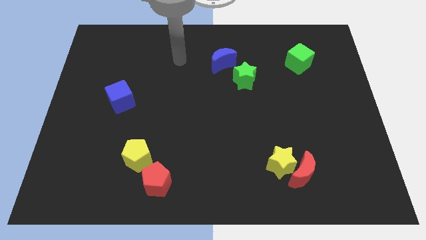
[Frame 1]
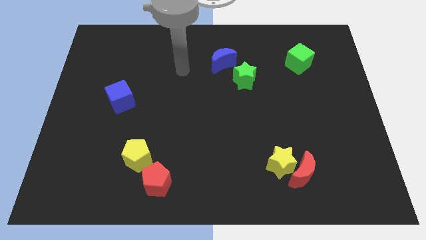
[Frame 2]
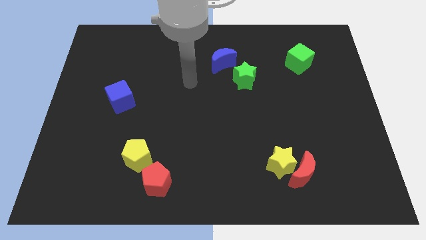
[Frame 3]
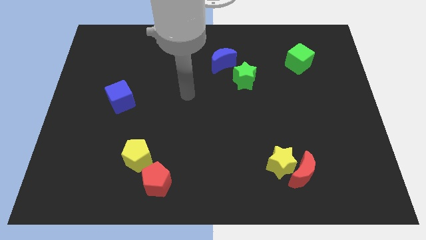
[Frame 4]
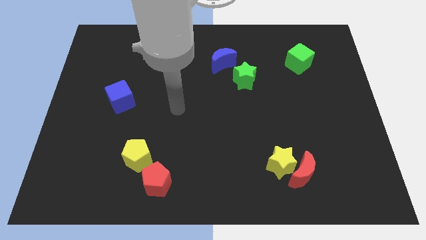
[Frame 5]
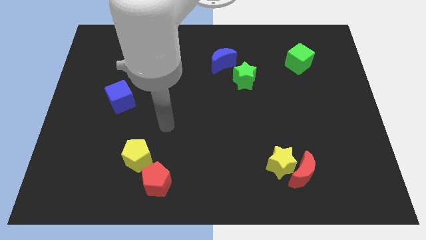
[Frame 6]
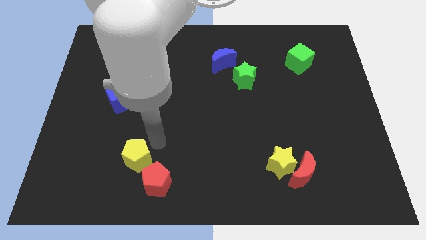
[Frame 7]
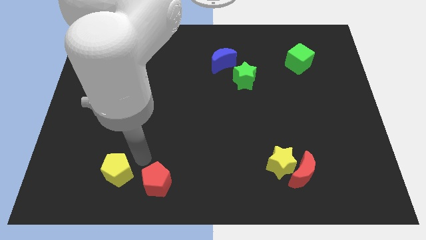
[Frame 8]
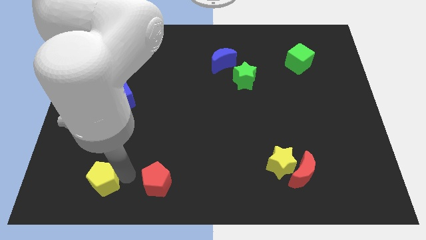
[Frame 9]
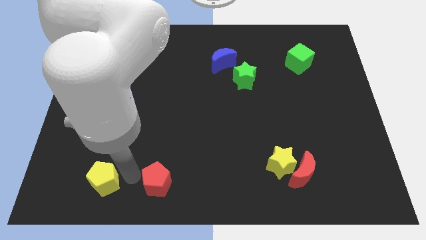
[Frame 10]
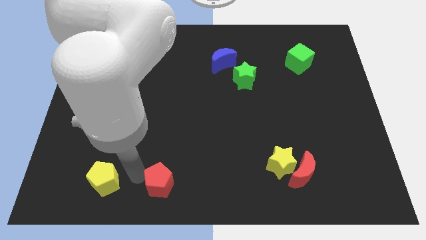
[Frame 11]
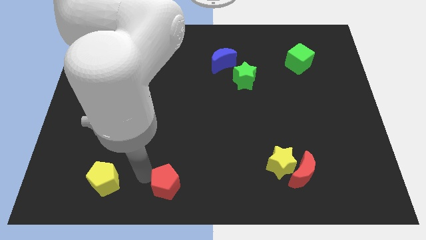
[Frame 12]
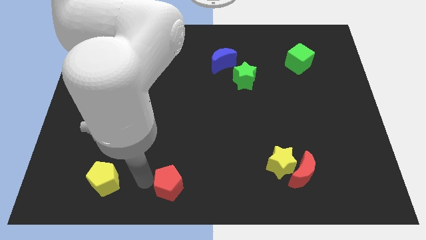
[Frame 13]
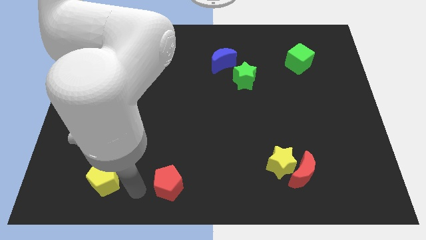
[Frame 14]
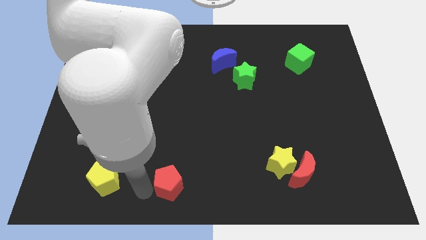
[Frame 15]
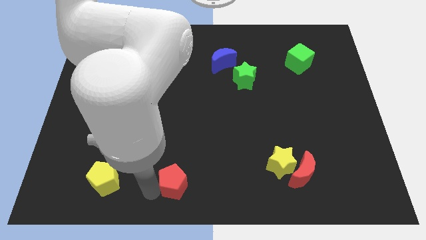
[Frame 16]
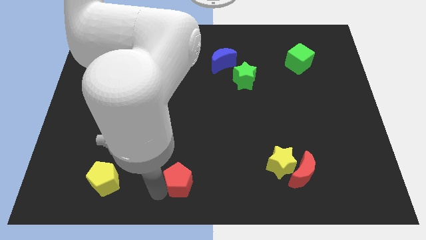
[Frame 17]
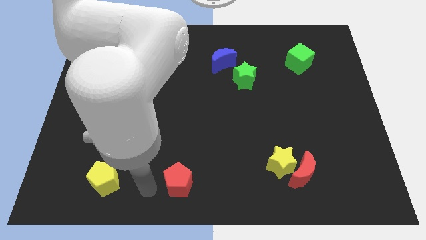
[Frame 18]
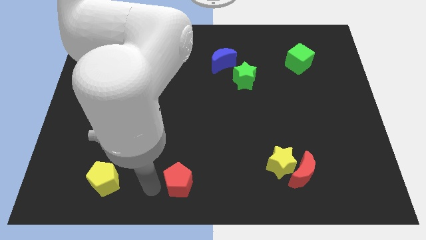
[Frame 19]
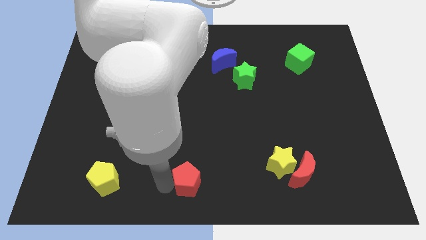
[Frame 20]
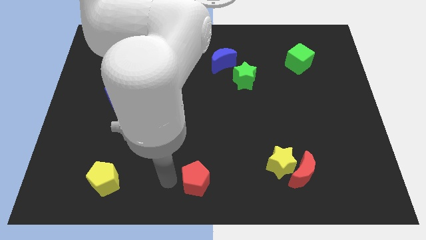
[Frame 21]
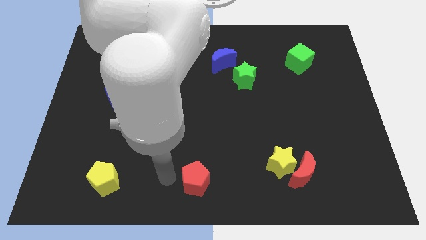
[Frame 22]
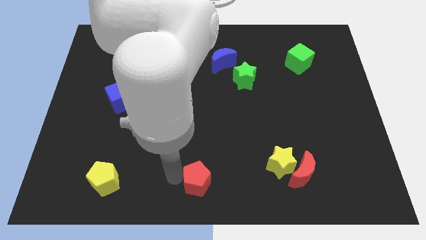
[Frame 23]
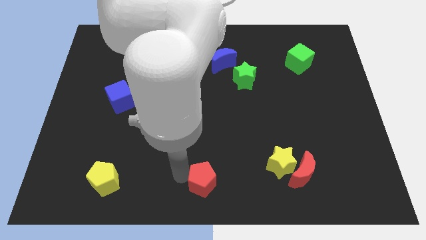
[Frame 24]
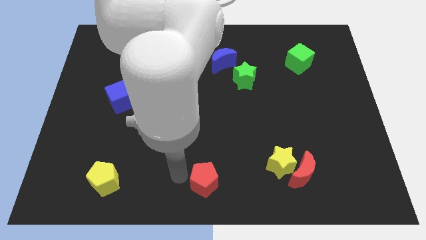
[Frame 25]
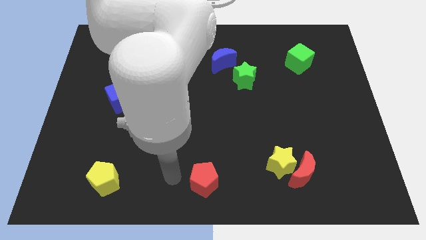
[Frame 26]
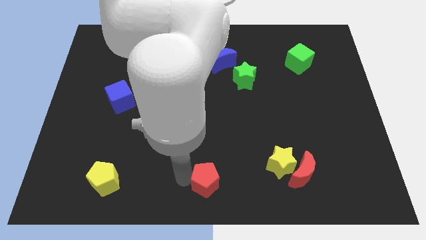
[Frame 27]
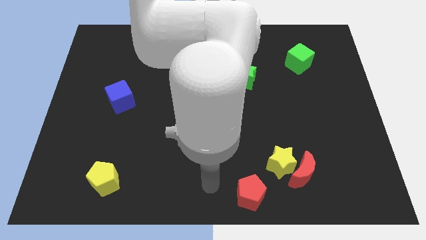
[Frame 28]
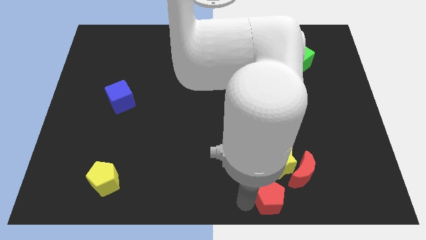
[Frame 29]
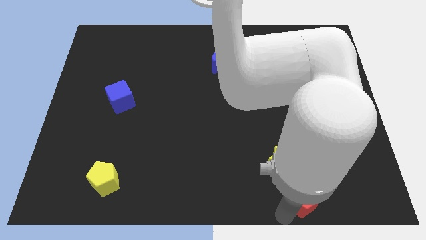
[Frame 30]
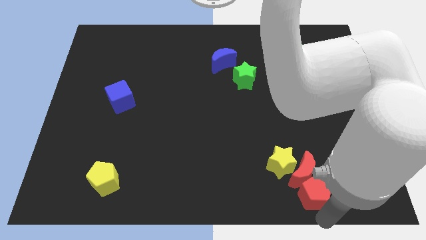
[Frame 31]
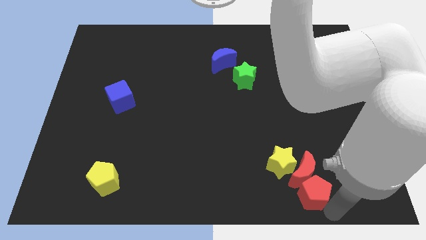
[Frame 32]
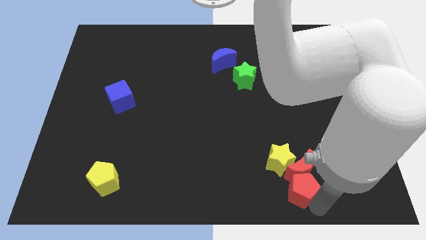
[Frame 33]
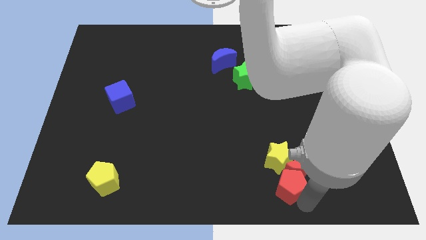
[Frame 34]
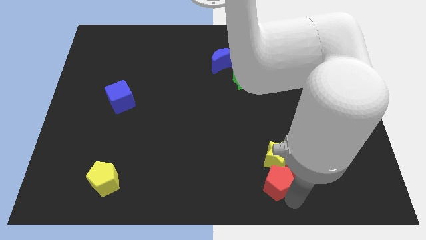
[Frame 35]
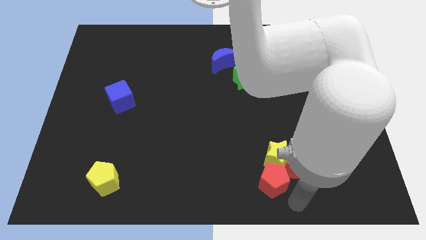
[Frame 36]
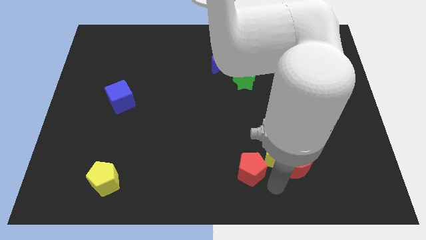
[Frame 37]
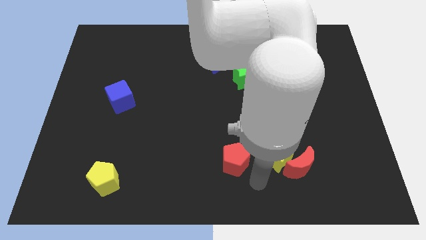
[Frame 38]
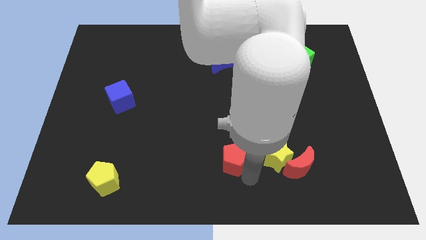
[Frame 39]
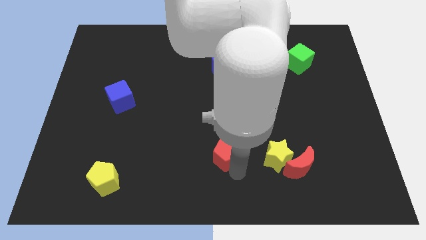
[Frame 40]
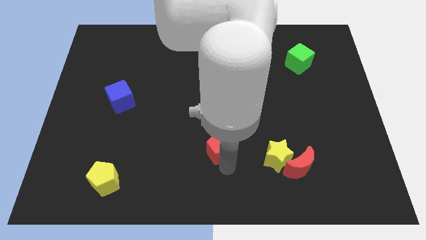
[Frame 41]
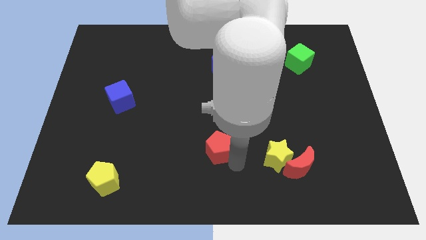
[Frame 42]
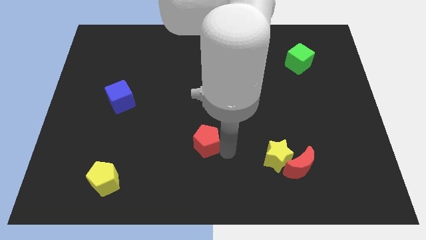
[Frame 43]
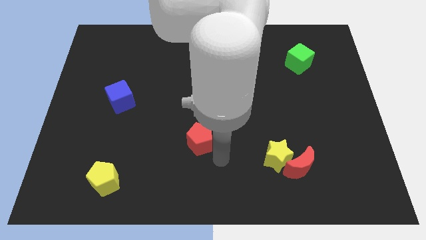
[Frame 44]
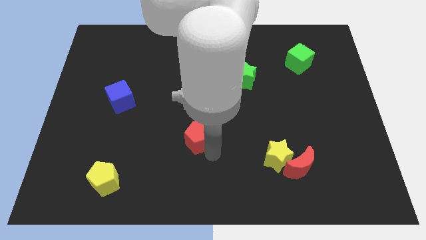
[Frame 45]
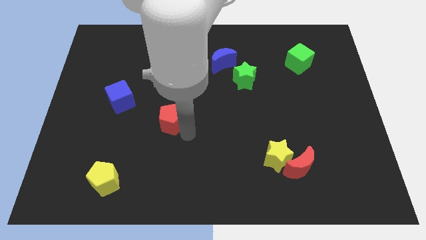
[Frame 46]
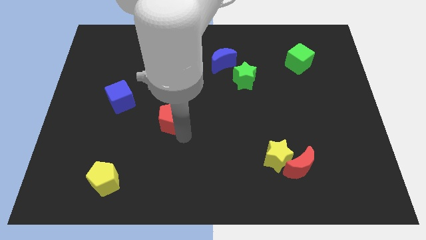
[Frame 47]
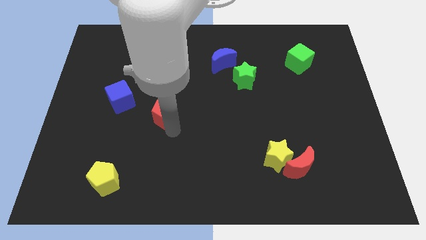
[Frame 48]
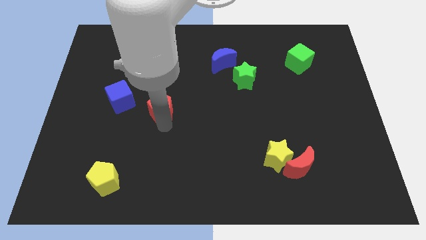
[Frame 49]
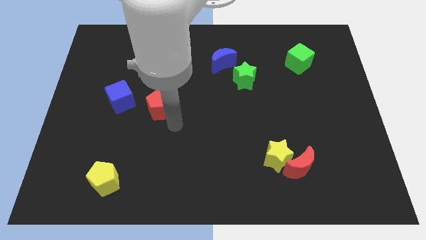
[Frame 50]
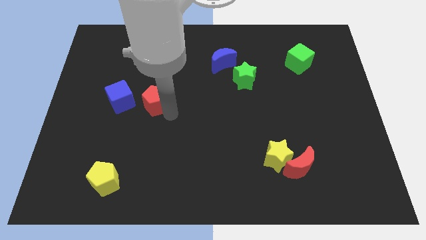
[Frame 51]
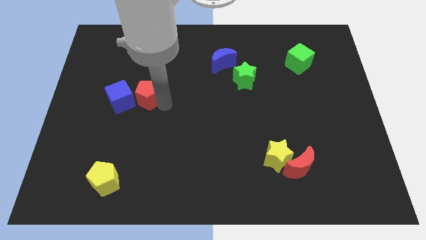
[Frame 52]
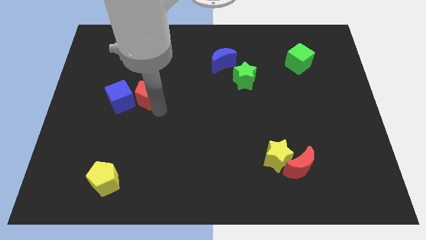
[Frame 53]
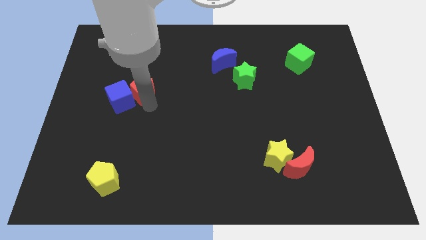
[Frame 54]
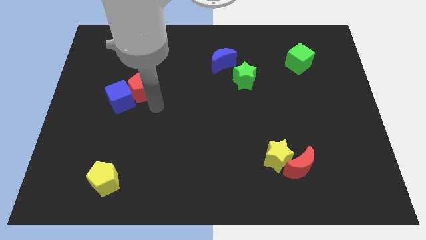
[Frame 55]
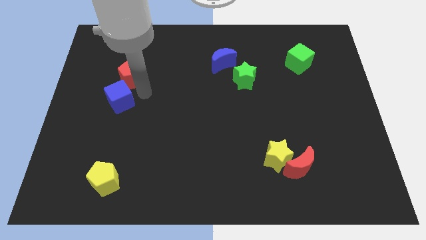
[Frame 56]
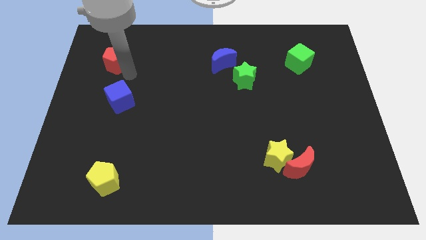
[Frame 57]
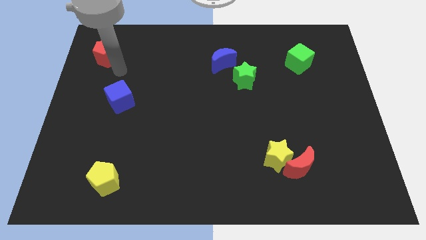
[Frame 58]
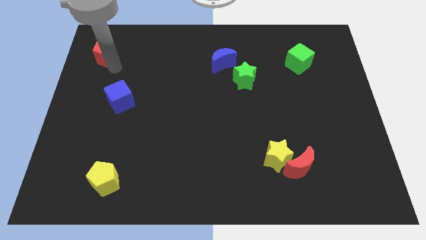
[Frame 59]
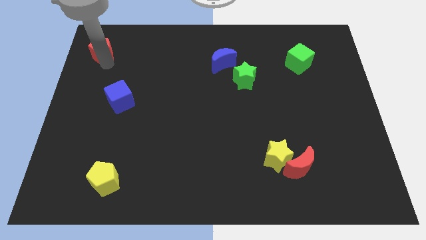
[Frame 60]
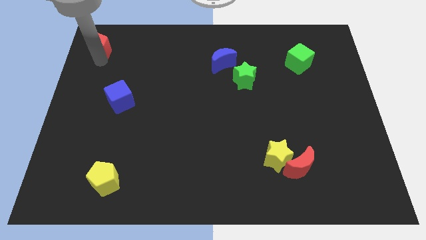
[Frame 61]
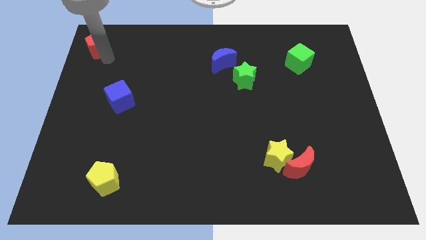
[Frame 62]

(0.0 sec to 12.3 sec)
slide the red pentagon to the upper left corner
